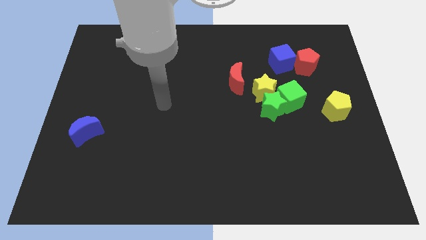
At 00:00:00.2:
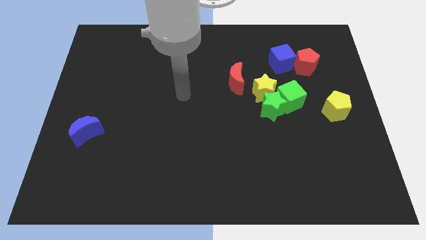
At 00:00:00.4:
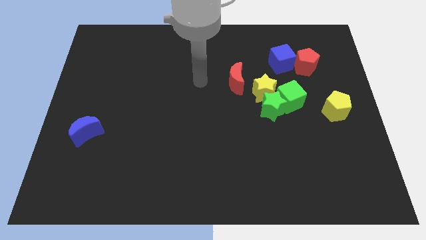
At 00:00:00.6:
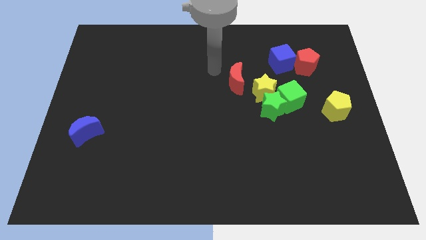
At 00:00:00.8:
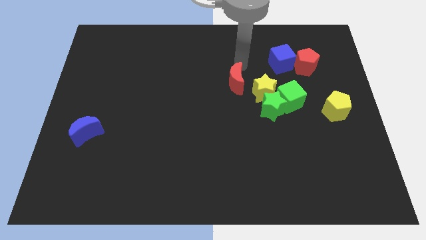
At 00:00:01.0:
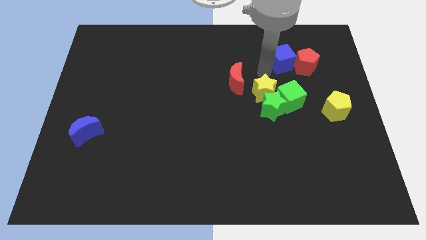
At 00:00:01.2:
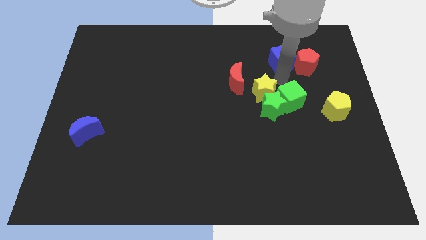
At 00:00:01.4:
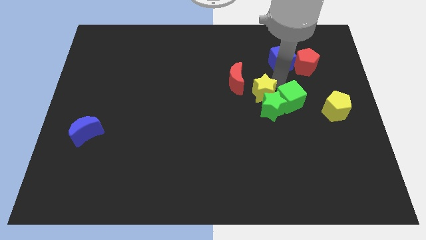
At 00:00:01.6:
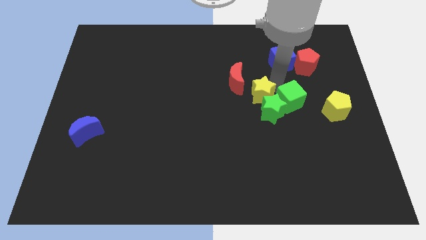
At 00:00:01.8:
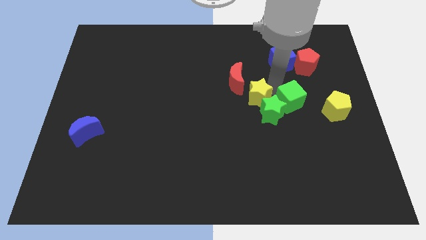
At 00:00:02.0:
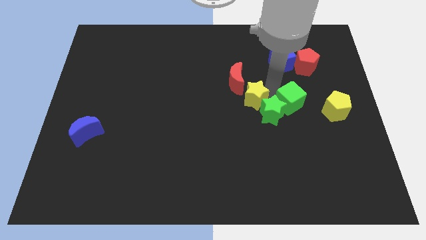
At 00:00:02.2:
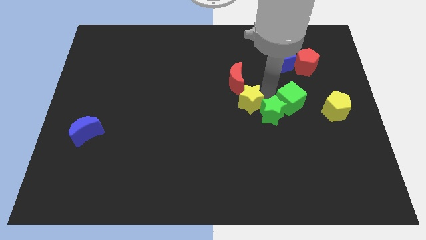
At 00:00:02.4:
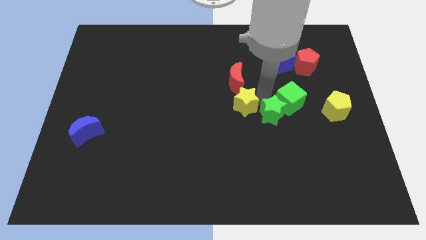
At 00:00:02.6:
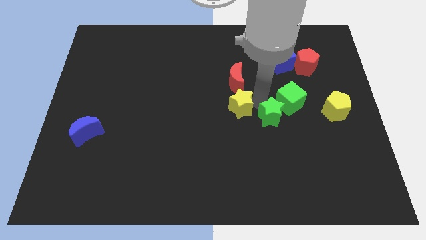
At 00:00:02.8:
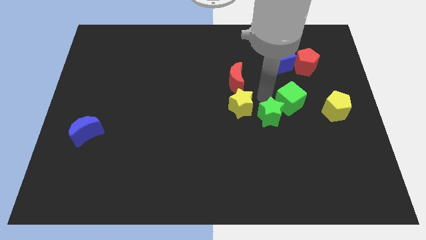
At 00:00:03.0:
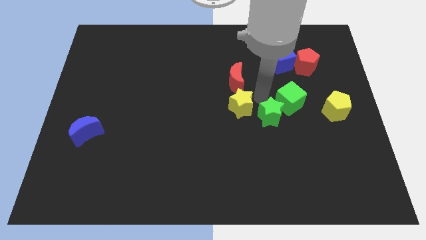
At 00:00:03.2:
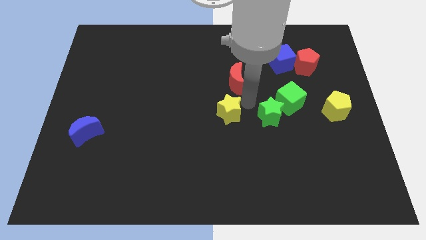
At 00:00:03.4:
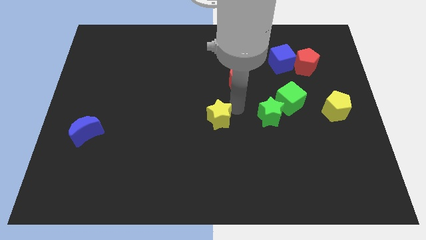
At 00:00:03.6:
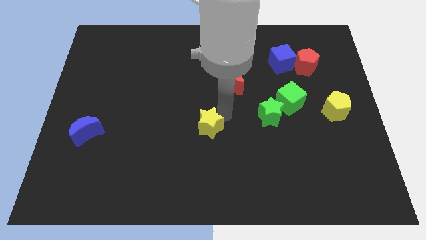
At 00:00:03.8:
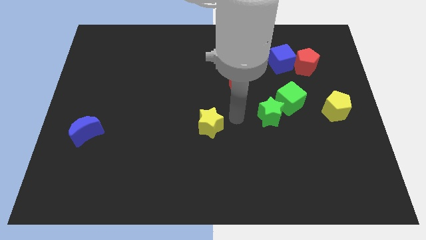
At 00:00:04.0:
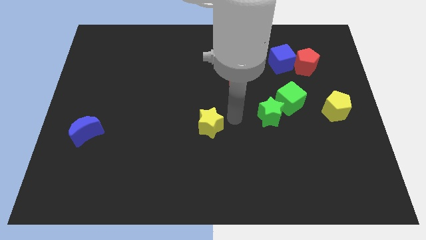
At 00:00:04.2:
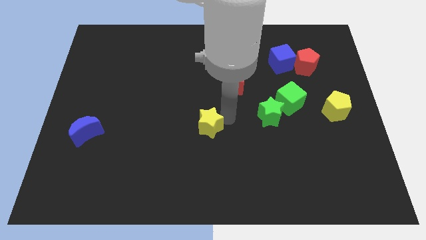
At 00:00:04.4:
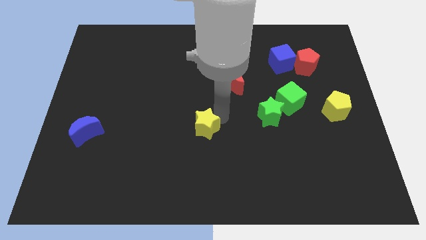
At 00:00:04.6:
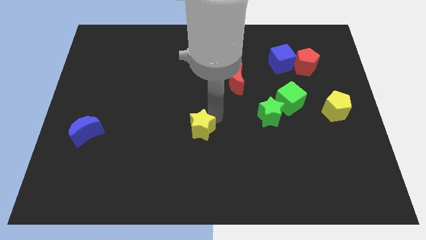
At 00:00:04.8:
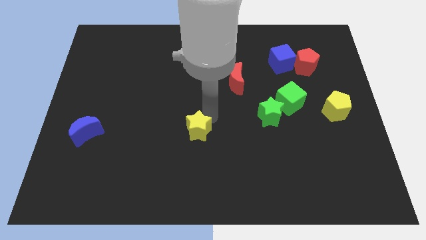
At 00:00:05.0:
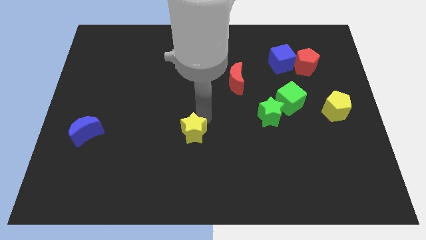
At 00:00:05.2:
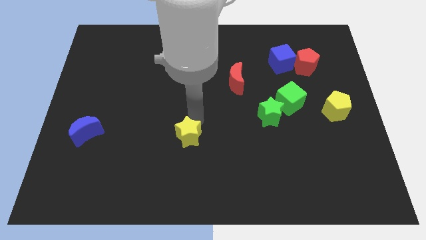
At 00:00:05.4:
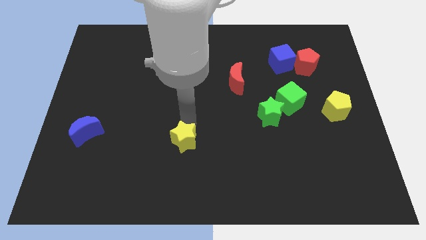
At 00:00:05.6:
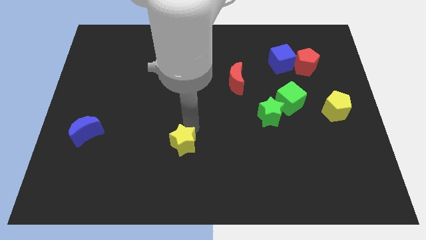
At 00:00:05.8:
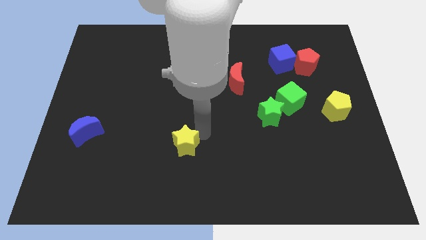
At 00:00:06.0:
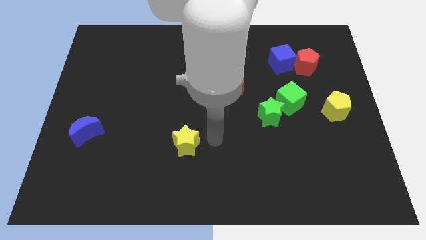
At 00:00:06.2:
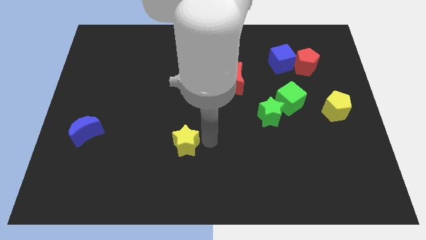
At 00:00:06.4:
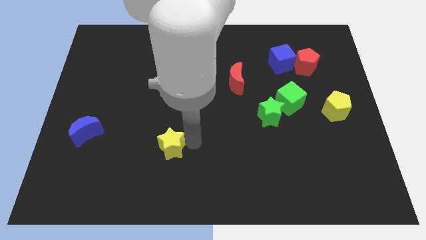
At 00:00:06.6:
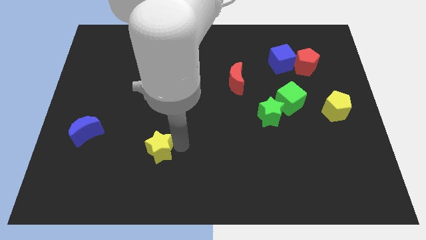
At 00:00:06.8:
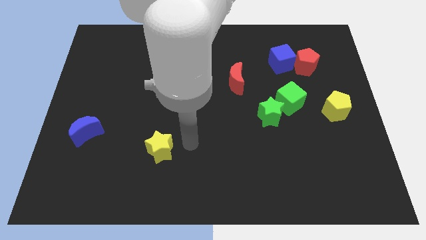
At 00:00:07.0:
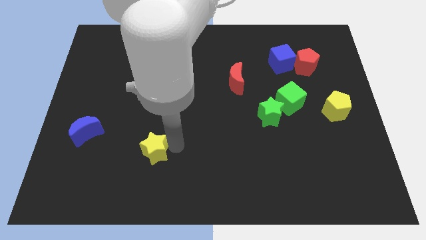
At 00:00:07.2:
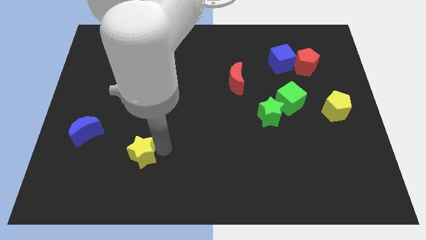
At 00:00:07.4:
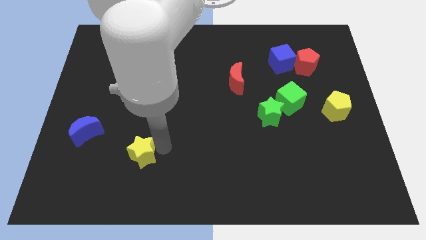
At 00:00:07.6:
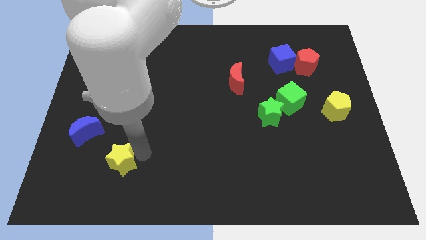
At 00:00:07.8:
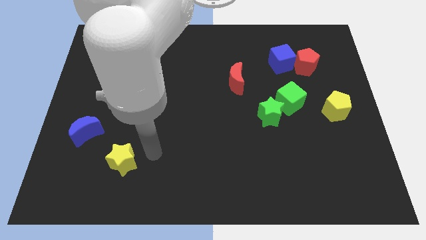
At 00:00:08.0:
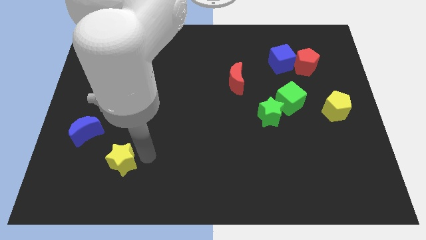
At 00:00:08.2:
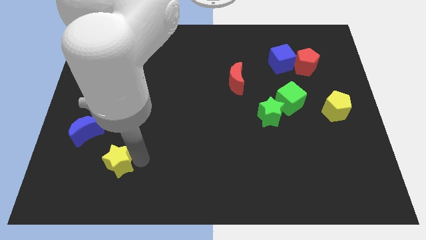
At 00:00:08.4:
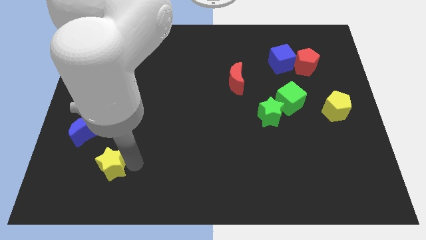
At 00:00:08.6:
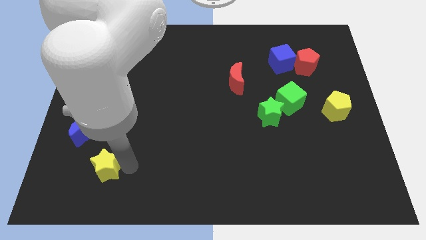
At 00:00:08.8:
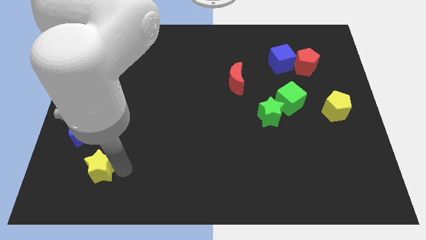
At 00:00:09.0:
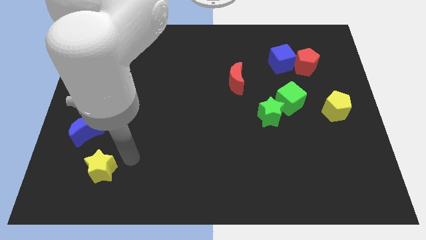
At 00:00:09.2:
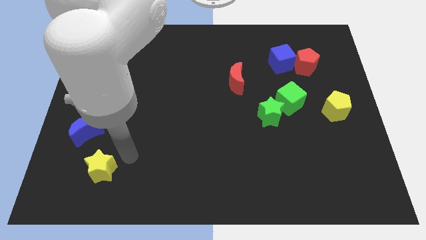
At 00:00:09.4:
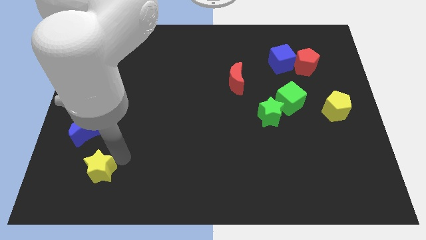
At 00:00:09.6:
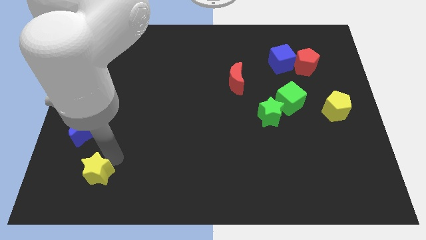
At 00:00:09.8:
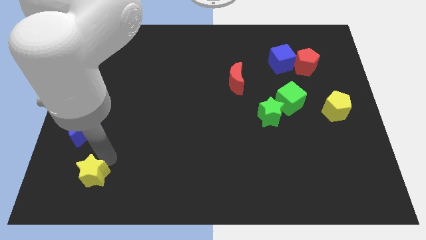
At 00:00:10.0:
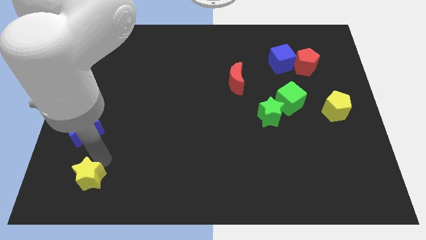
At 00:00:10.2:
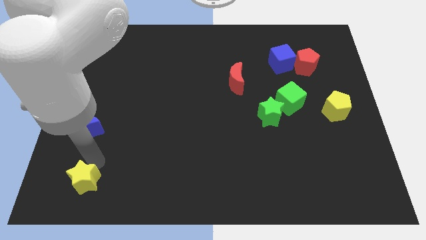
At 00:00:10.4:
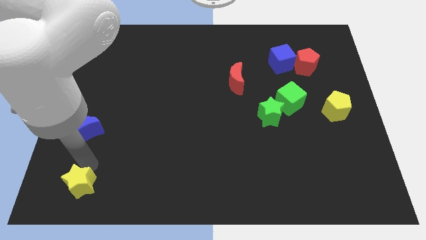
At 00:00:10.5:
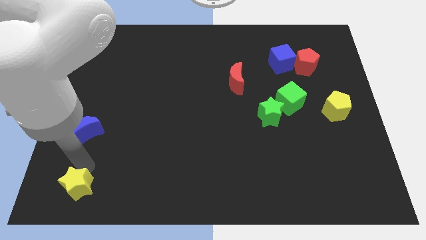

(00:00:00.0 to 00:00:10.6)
slide the yellow star to the bottom left

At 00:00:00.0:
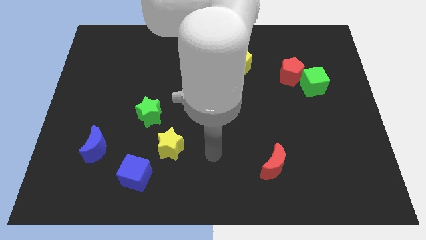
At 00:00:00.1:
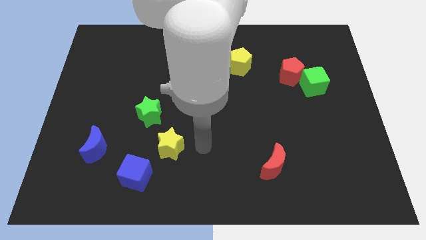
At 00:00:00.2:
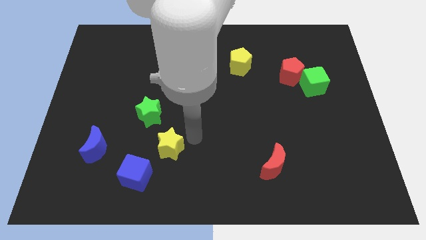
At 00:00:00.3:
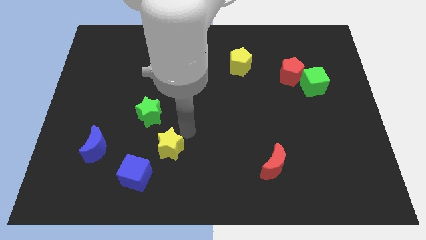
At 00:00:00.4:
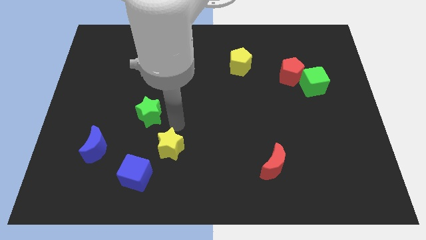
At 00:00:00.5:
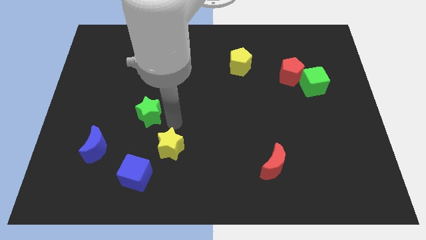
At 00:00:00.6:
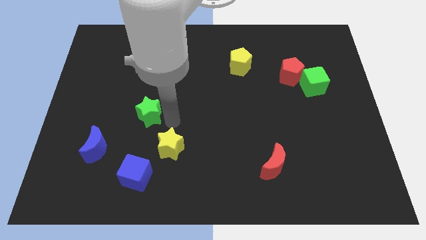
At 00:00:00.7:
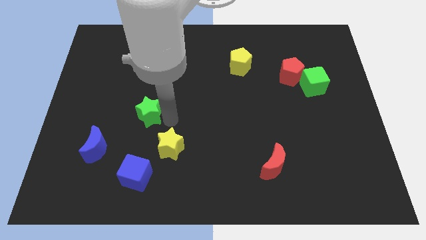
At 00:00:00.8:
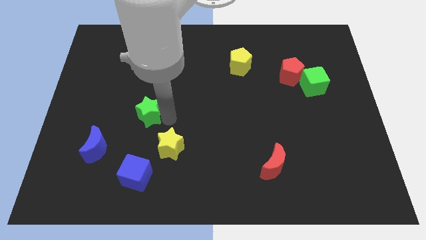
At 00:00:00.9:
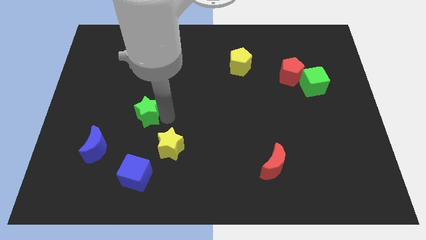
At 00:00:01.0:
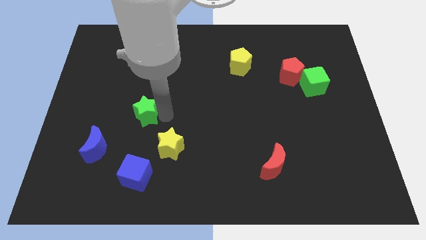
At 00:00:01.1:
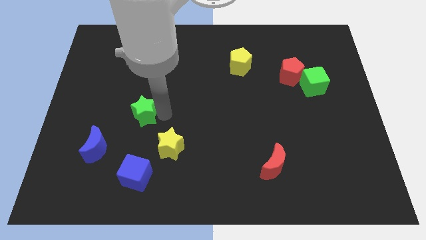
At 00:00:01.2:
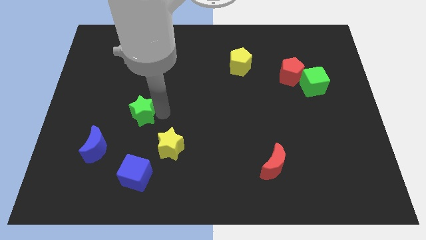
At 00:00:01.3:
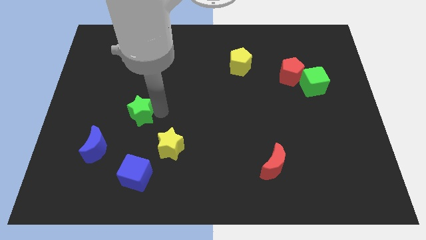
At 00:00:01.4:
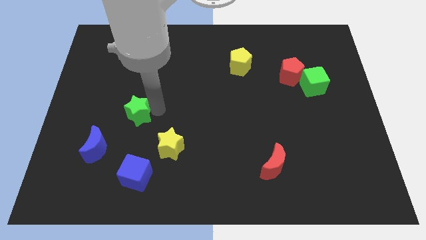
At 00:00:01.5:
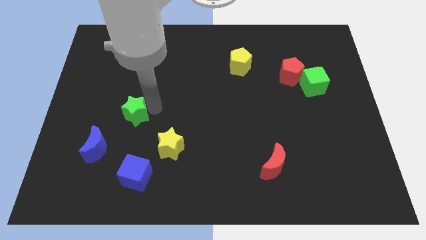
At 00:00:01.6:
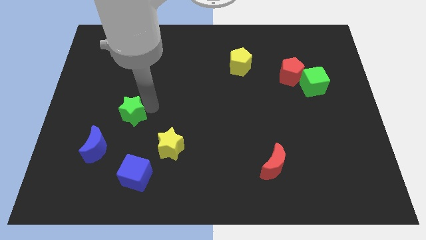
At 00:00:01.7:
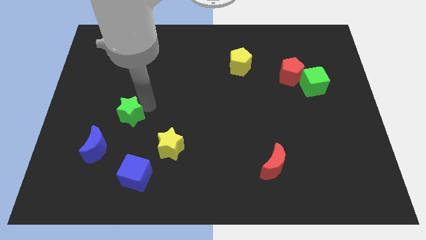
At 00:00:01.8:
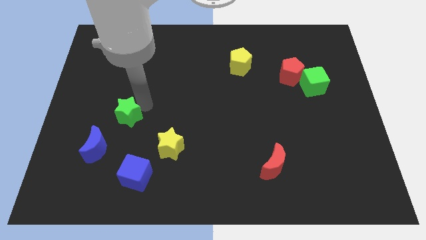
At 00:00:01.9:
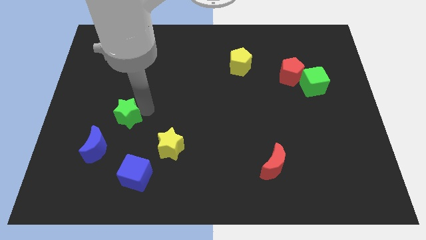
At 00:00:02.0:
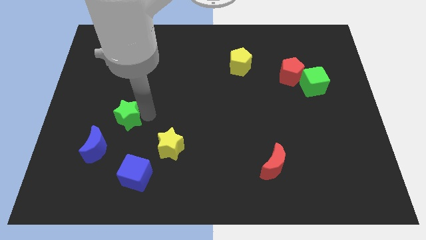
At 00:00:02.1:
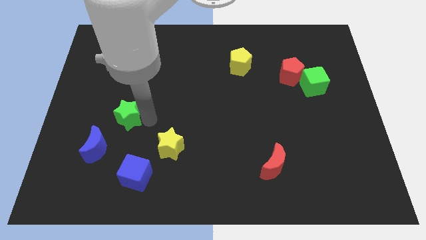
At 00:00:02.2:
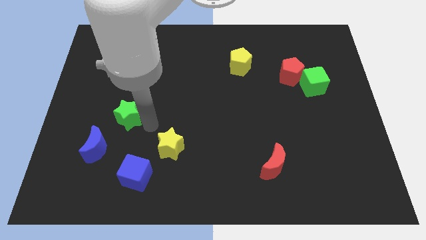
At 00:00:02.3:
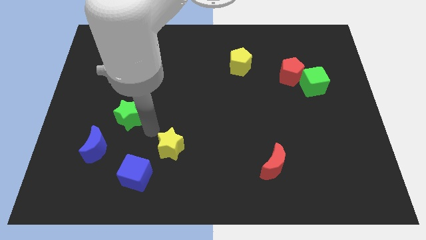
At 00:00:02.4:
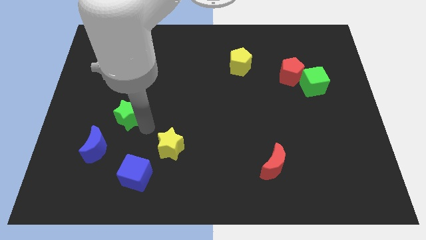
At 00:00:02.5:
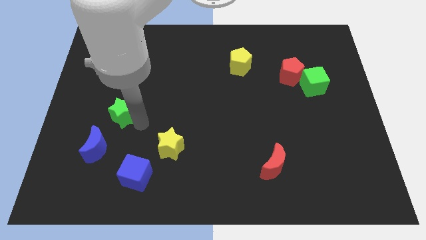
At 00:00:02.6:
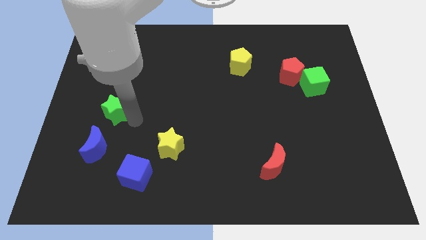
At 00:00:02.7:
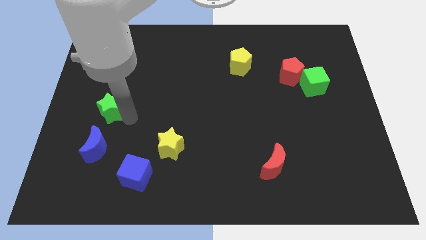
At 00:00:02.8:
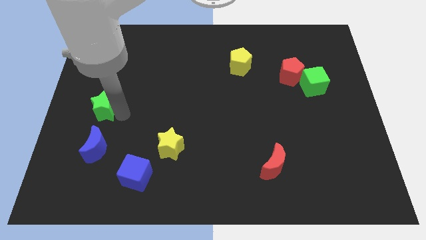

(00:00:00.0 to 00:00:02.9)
move the green star to the left side
